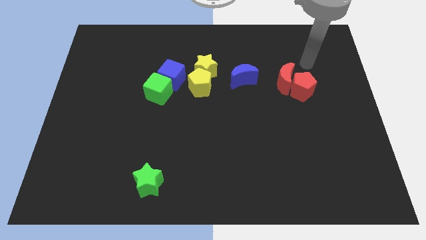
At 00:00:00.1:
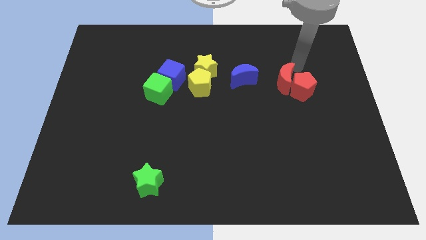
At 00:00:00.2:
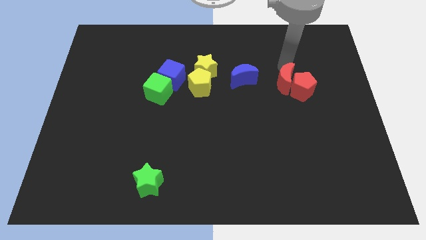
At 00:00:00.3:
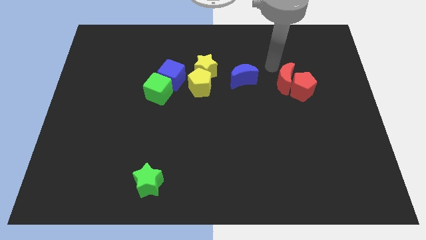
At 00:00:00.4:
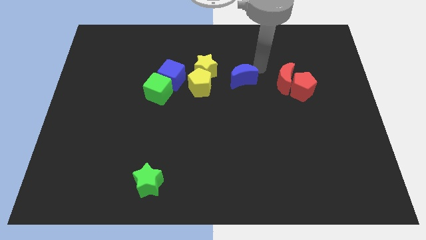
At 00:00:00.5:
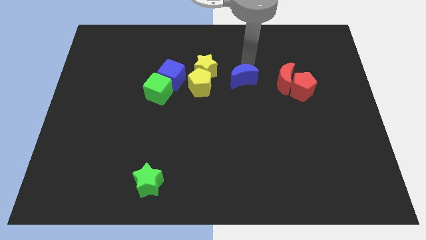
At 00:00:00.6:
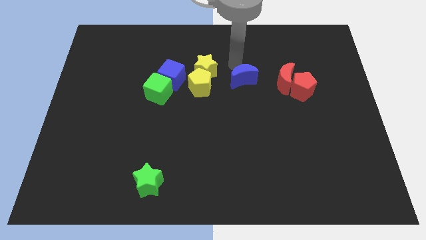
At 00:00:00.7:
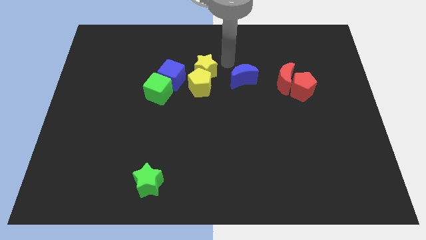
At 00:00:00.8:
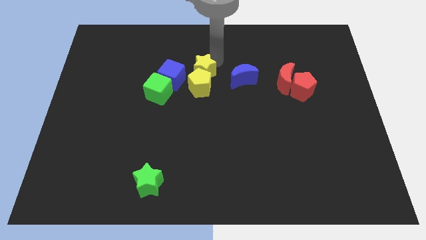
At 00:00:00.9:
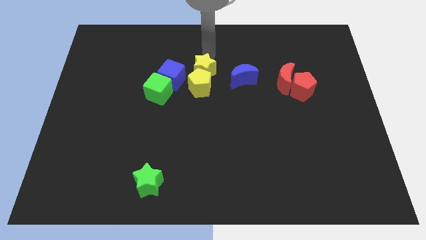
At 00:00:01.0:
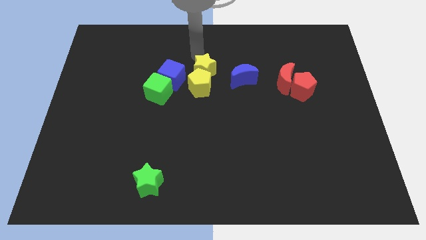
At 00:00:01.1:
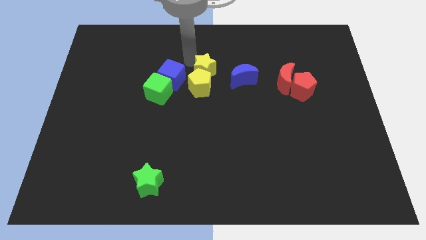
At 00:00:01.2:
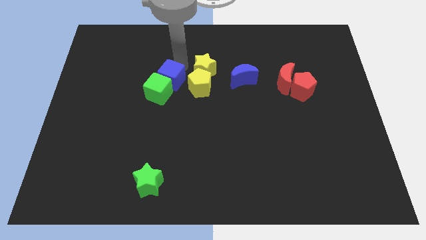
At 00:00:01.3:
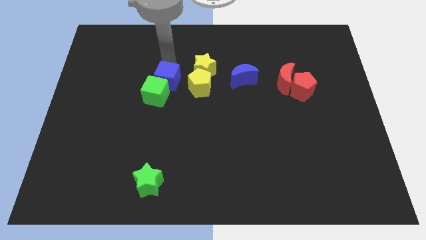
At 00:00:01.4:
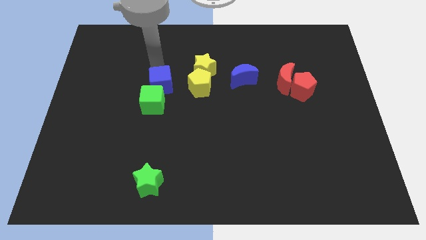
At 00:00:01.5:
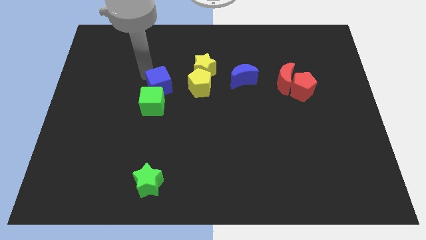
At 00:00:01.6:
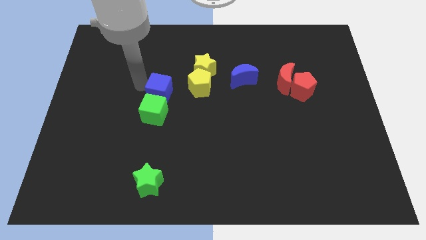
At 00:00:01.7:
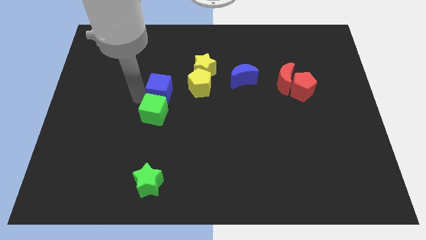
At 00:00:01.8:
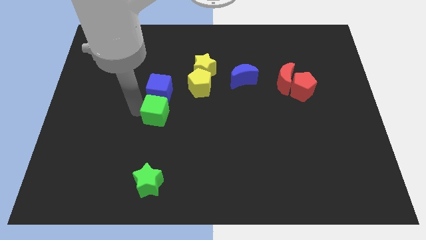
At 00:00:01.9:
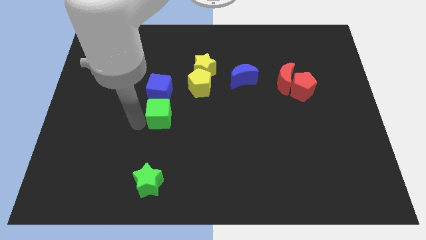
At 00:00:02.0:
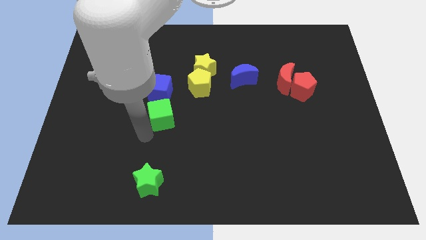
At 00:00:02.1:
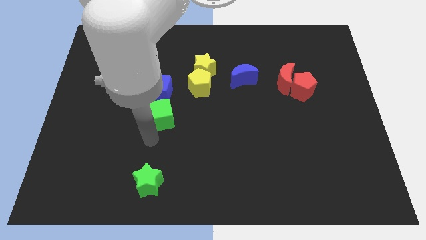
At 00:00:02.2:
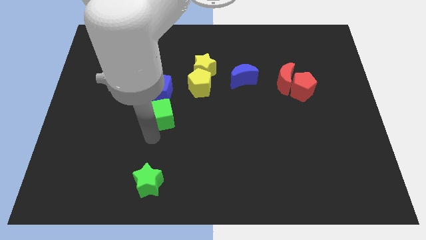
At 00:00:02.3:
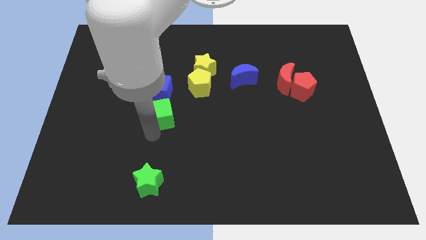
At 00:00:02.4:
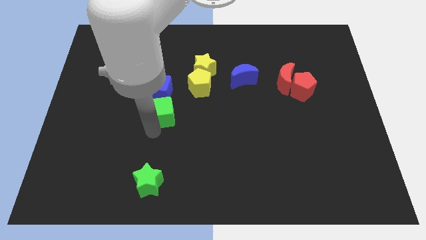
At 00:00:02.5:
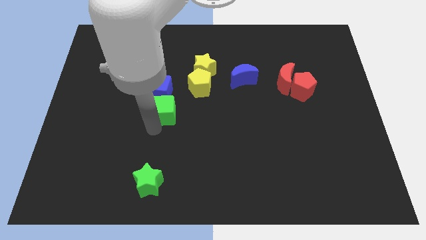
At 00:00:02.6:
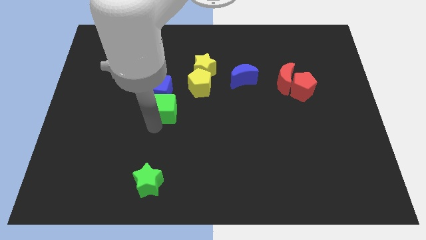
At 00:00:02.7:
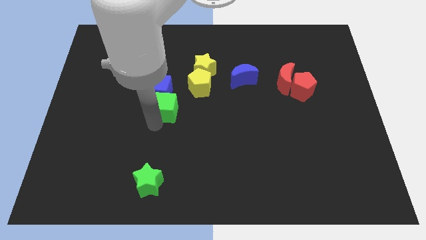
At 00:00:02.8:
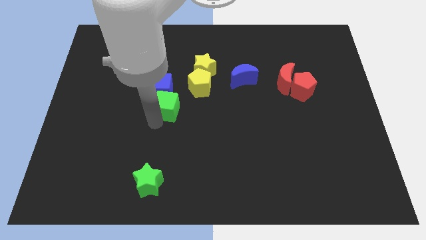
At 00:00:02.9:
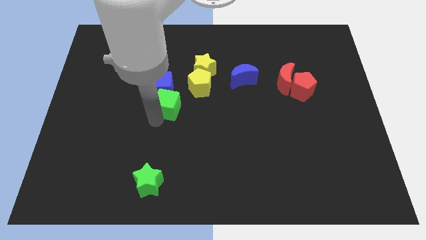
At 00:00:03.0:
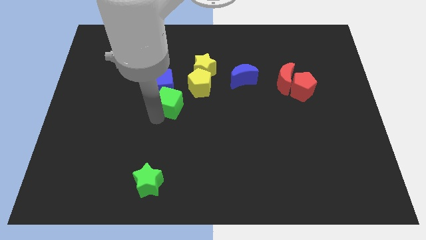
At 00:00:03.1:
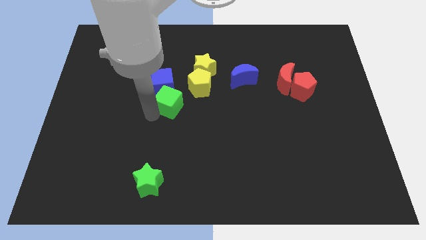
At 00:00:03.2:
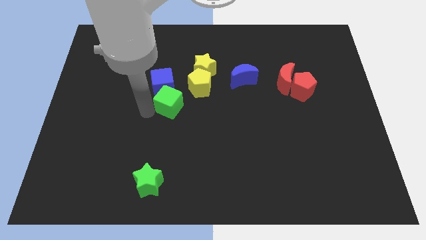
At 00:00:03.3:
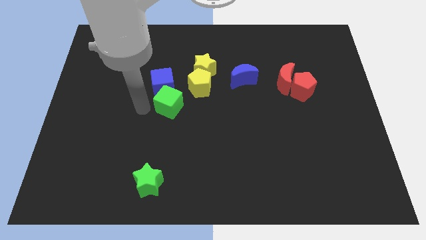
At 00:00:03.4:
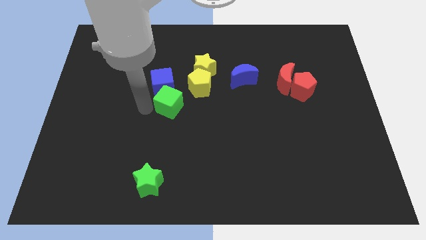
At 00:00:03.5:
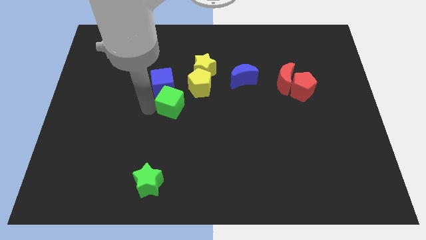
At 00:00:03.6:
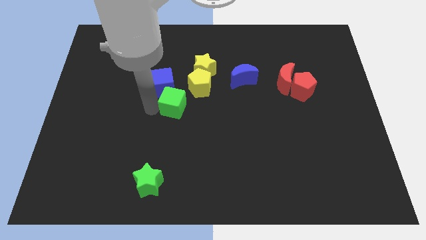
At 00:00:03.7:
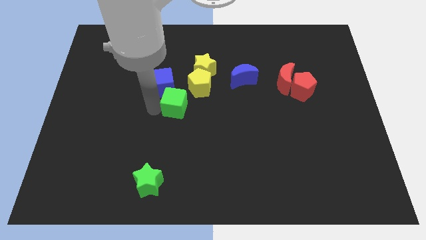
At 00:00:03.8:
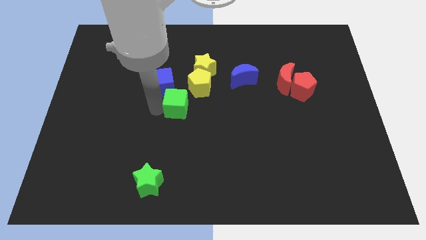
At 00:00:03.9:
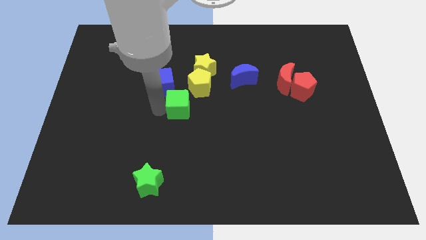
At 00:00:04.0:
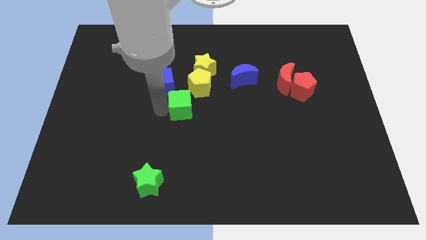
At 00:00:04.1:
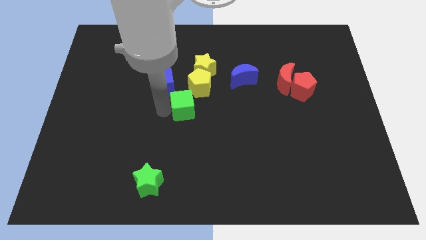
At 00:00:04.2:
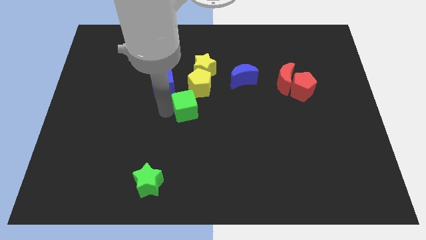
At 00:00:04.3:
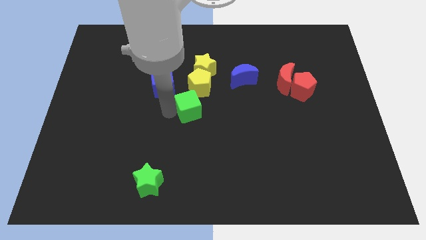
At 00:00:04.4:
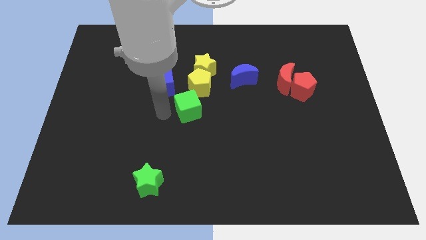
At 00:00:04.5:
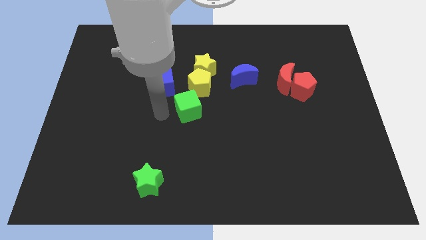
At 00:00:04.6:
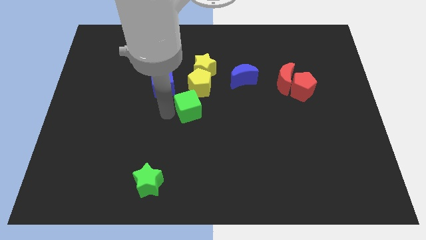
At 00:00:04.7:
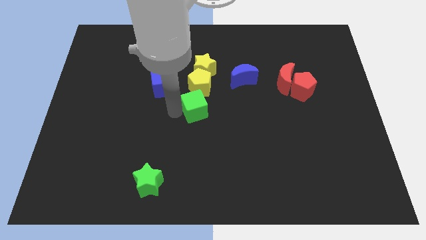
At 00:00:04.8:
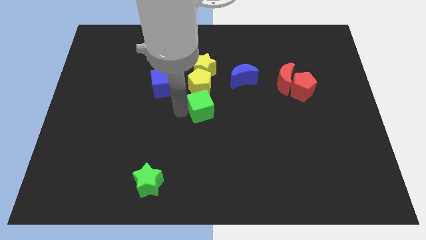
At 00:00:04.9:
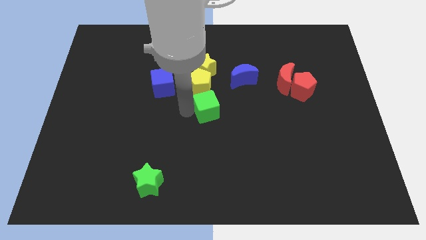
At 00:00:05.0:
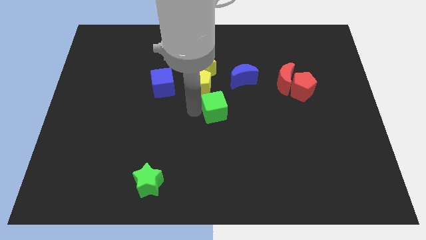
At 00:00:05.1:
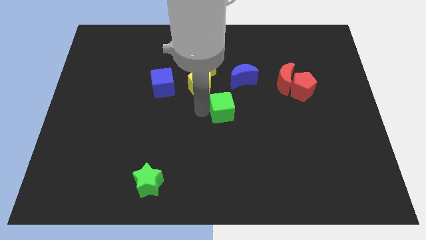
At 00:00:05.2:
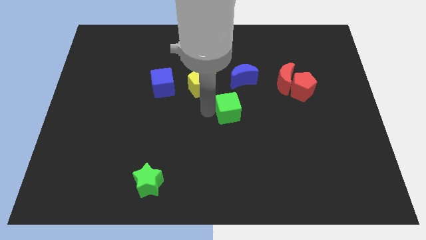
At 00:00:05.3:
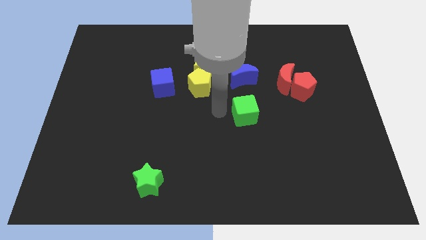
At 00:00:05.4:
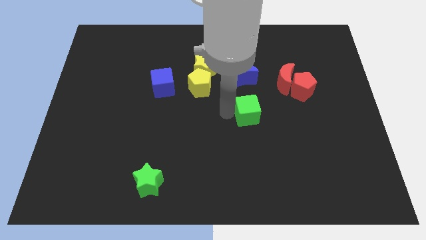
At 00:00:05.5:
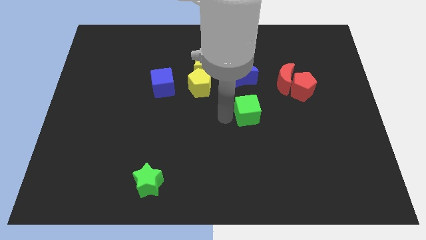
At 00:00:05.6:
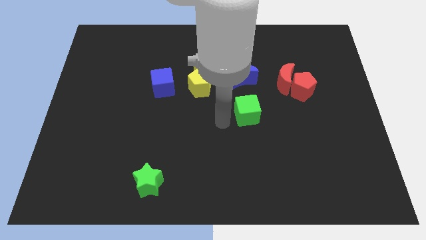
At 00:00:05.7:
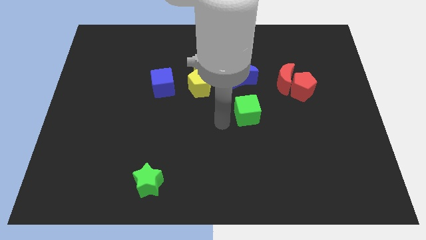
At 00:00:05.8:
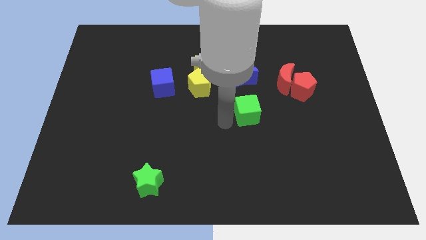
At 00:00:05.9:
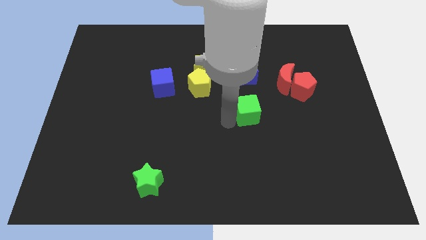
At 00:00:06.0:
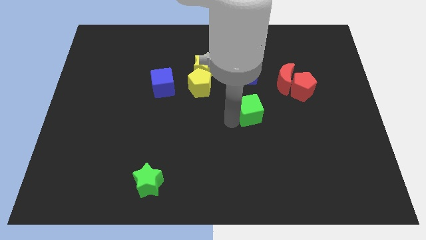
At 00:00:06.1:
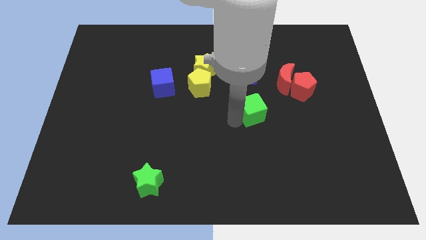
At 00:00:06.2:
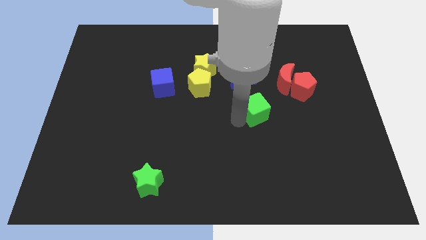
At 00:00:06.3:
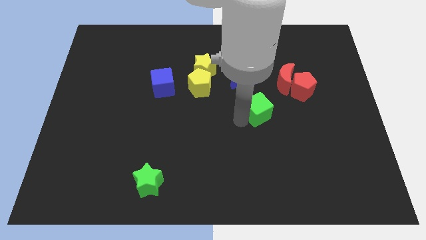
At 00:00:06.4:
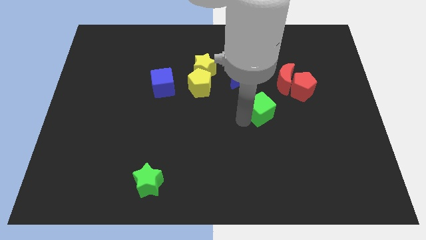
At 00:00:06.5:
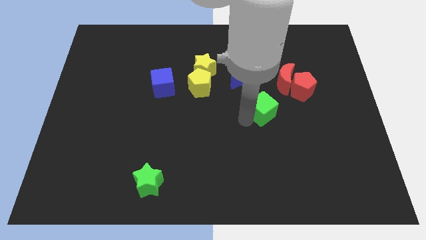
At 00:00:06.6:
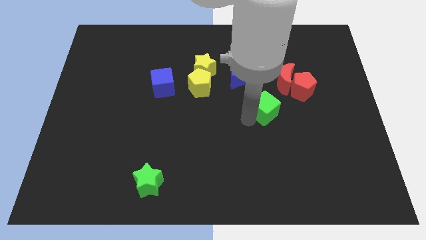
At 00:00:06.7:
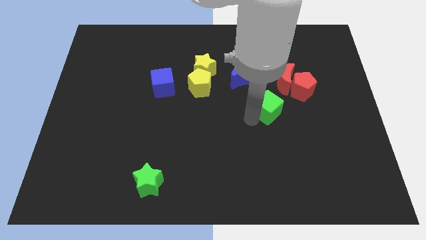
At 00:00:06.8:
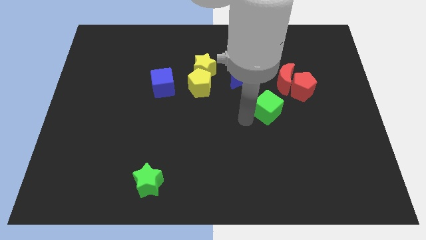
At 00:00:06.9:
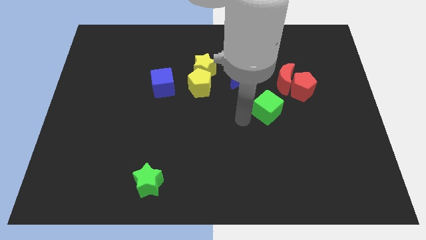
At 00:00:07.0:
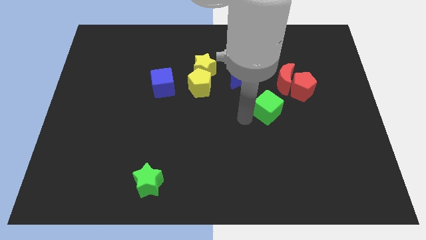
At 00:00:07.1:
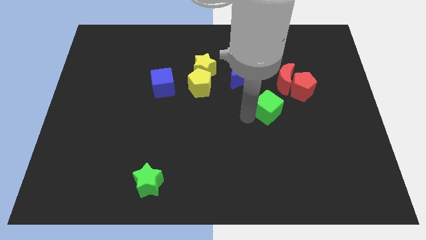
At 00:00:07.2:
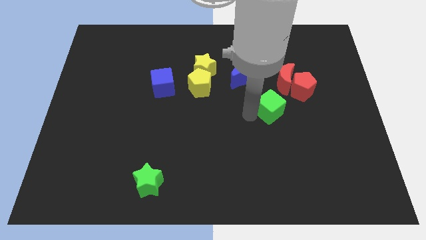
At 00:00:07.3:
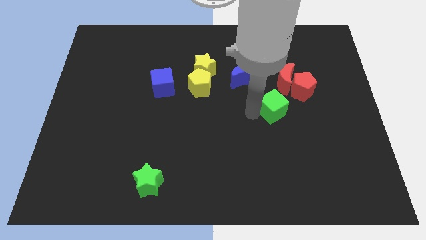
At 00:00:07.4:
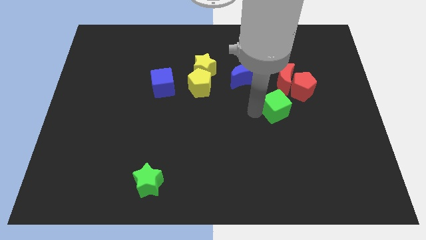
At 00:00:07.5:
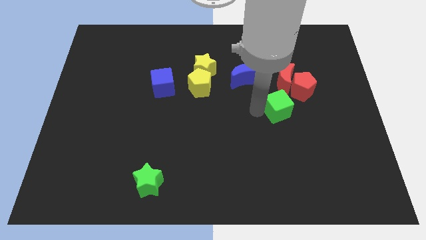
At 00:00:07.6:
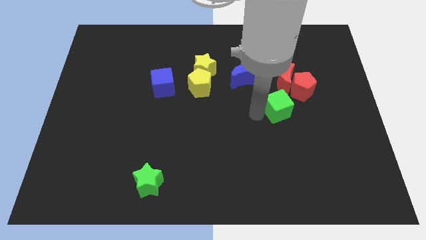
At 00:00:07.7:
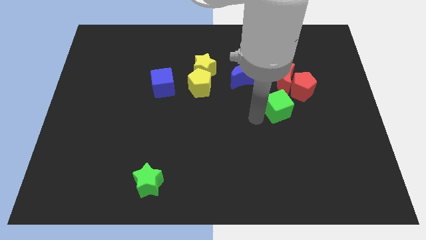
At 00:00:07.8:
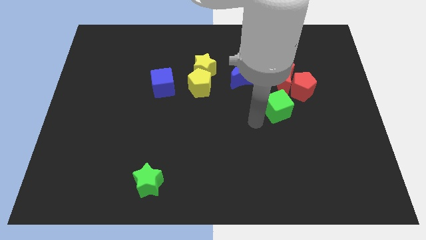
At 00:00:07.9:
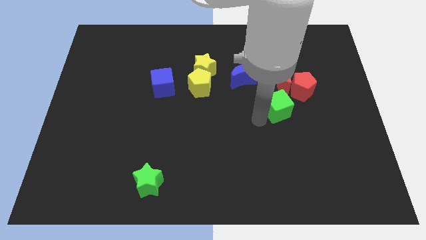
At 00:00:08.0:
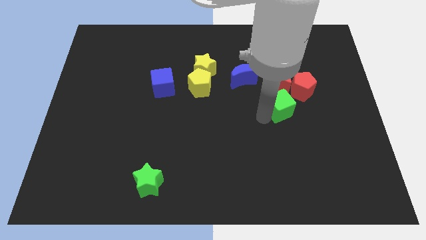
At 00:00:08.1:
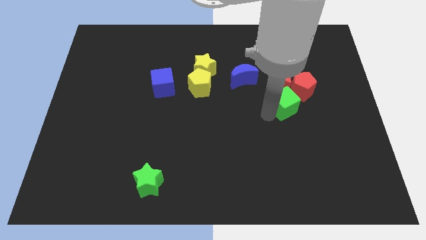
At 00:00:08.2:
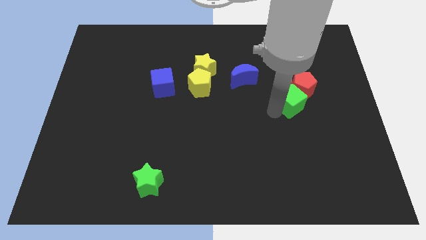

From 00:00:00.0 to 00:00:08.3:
slide the green cube to the red pentagon
